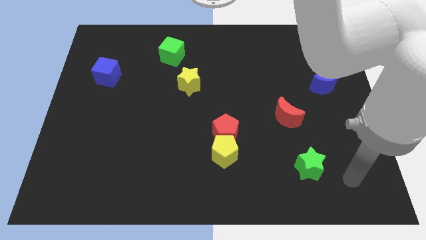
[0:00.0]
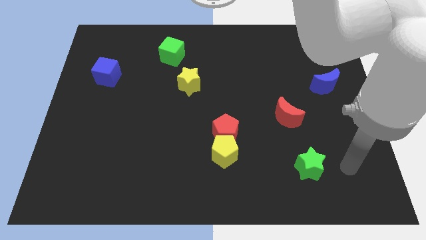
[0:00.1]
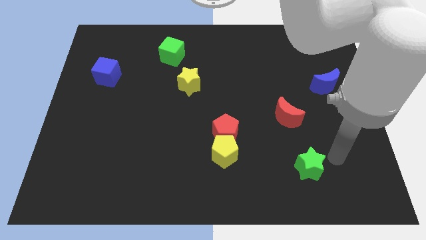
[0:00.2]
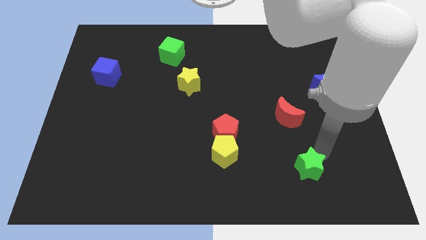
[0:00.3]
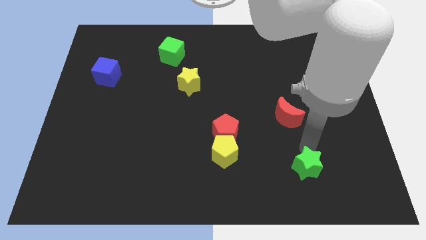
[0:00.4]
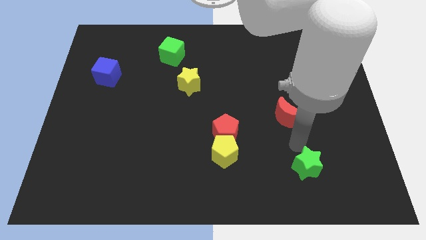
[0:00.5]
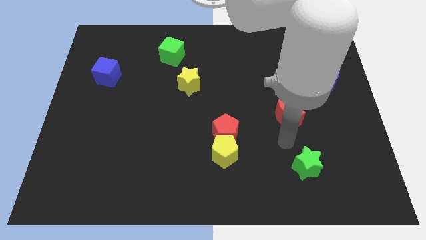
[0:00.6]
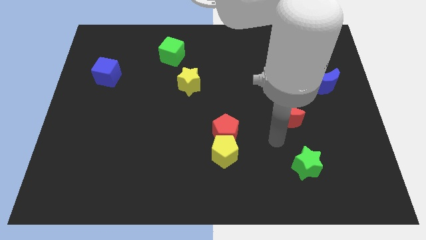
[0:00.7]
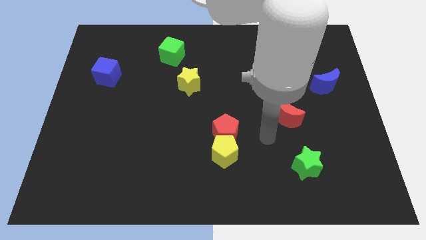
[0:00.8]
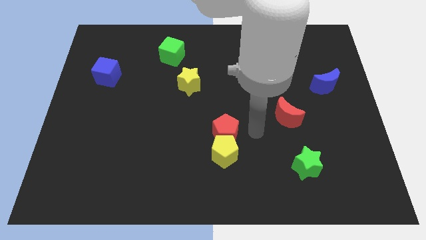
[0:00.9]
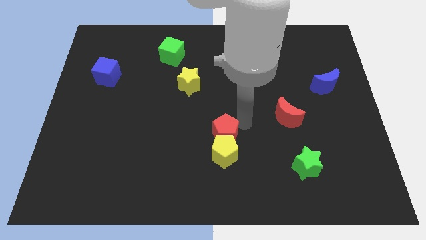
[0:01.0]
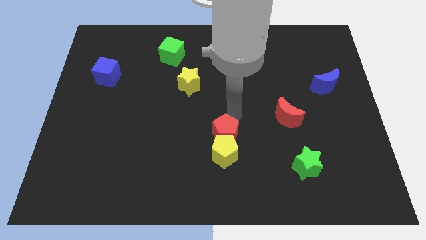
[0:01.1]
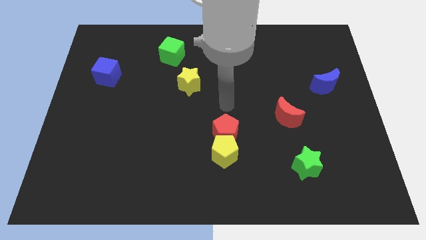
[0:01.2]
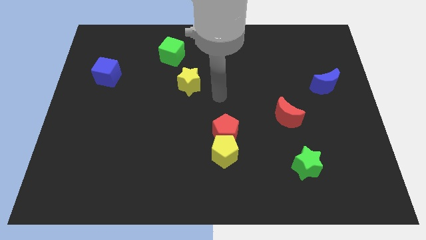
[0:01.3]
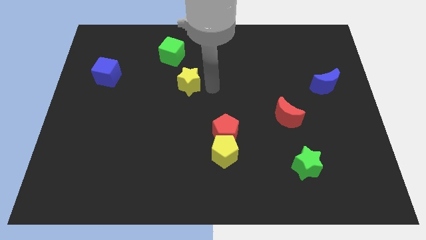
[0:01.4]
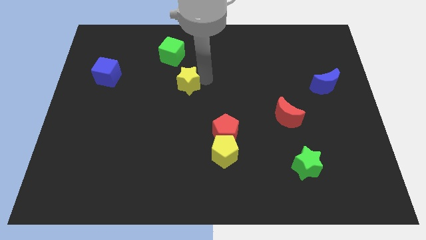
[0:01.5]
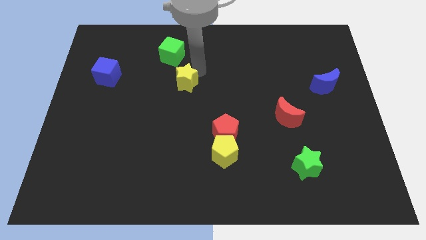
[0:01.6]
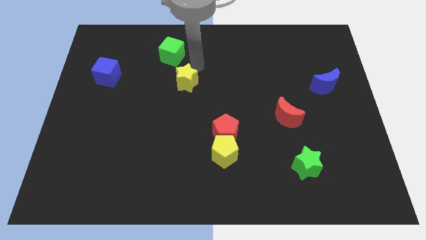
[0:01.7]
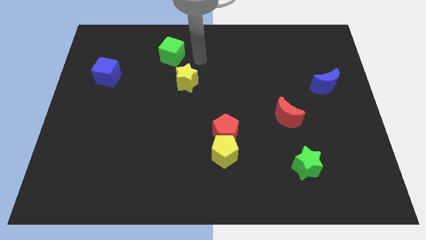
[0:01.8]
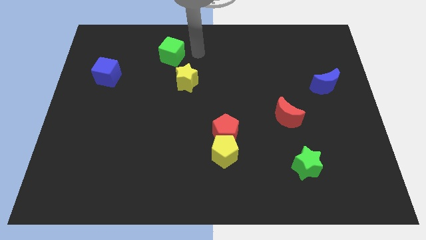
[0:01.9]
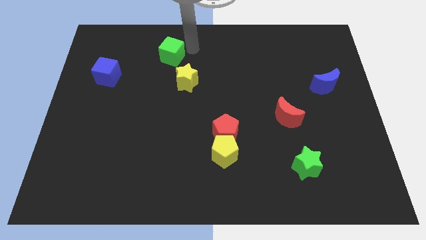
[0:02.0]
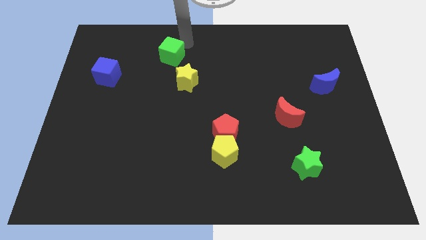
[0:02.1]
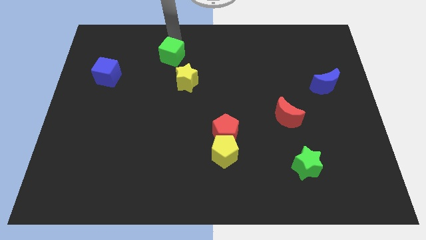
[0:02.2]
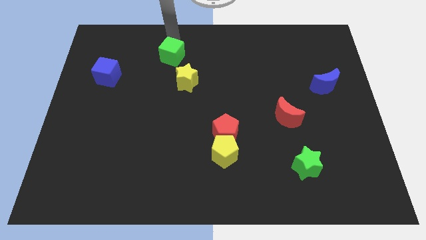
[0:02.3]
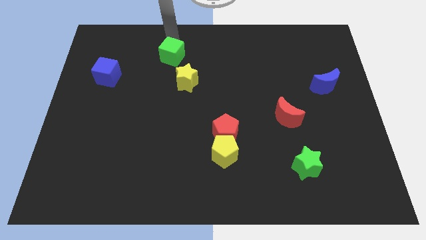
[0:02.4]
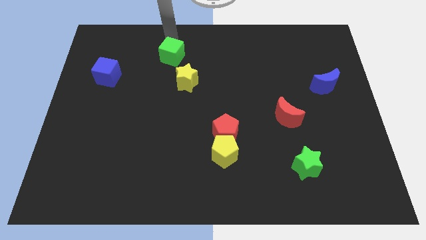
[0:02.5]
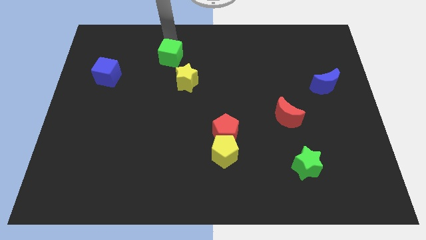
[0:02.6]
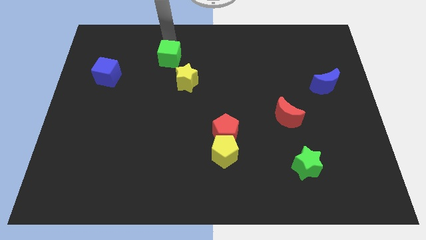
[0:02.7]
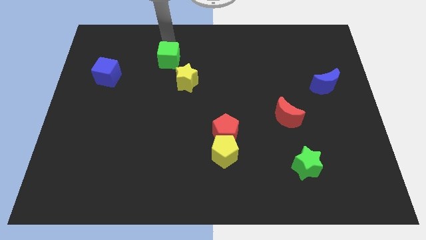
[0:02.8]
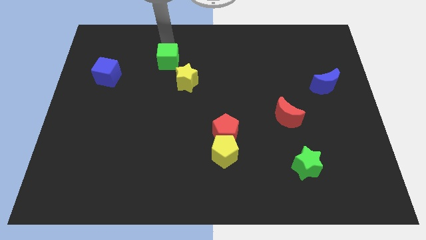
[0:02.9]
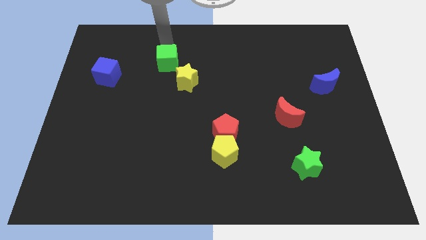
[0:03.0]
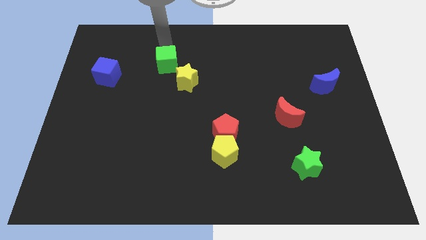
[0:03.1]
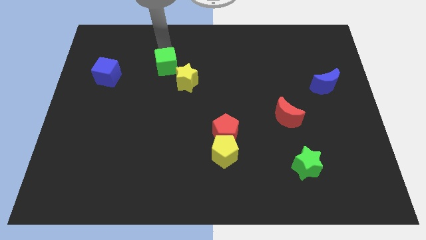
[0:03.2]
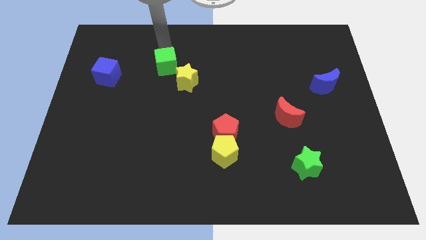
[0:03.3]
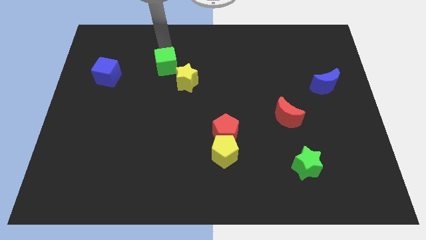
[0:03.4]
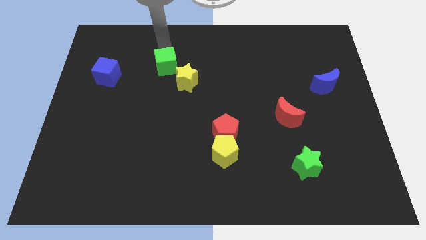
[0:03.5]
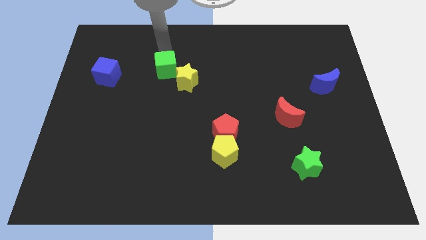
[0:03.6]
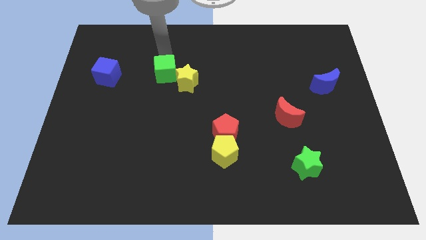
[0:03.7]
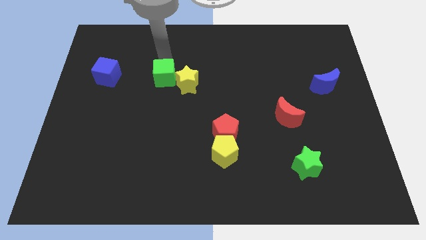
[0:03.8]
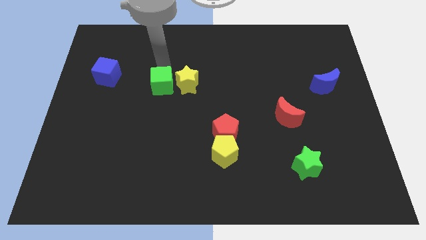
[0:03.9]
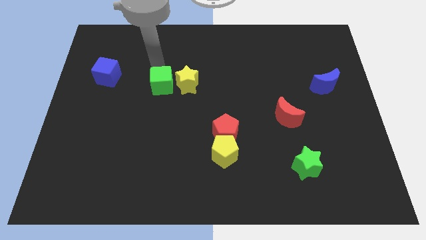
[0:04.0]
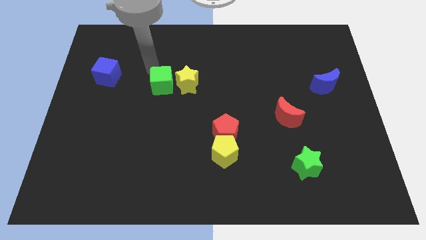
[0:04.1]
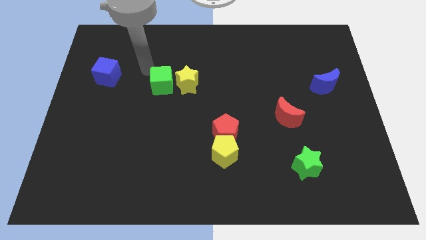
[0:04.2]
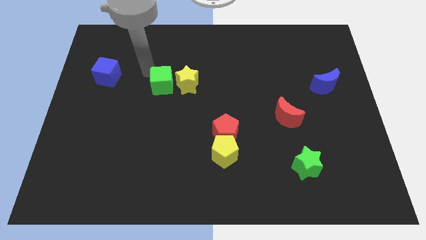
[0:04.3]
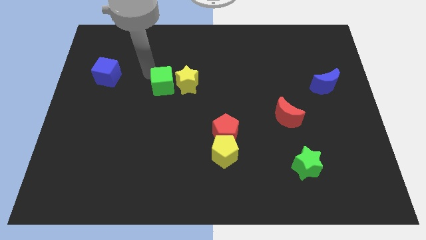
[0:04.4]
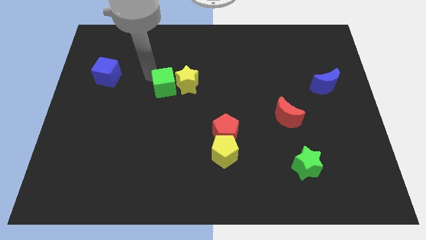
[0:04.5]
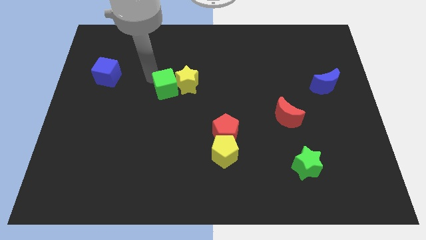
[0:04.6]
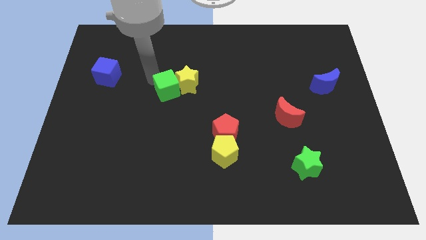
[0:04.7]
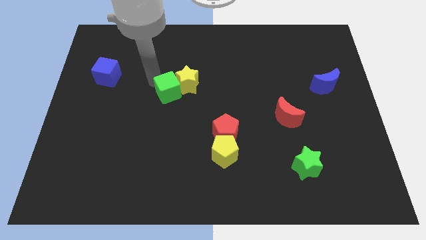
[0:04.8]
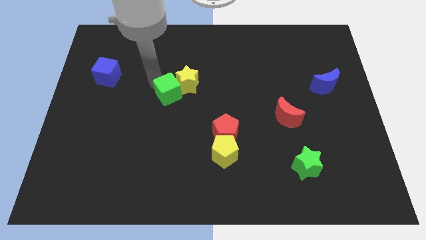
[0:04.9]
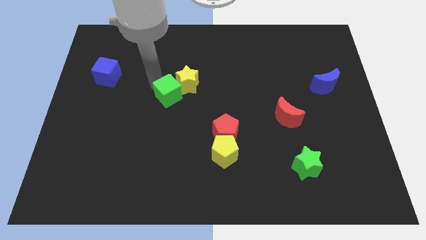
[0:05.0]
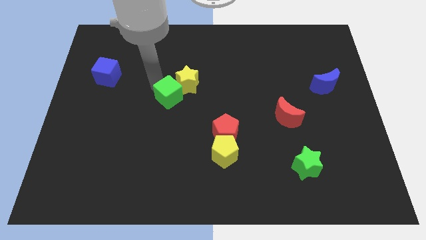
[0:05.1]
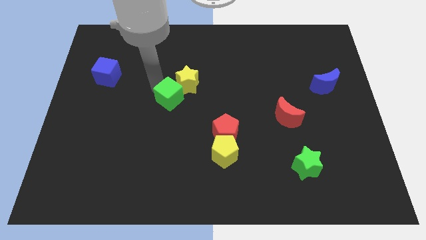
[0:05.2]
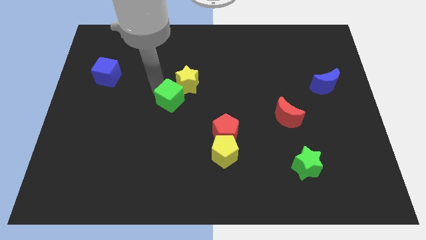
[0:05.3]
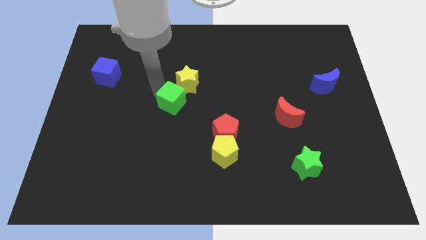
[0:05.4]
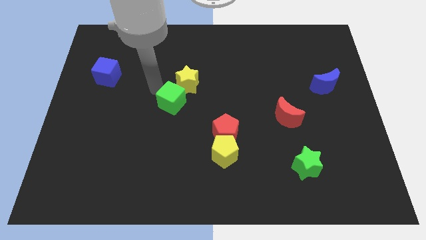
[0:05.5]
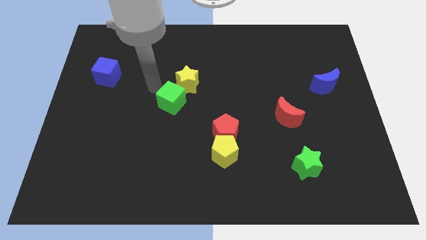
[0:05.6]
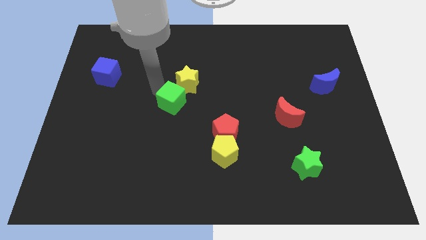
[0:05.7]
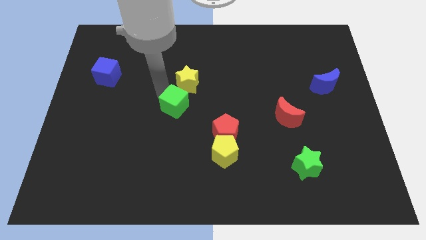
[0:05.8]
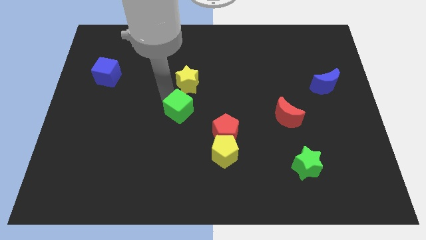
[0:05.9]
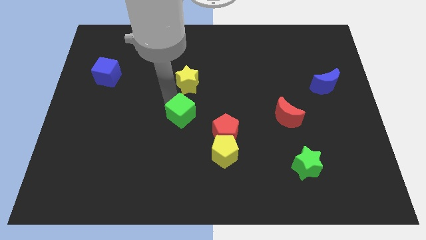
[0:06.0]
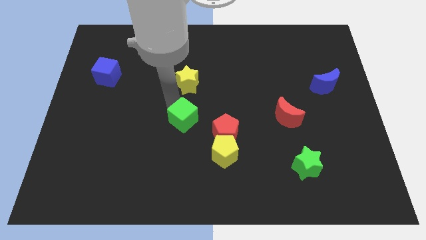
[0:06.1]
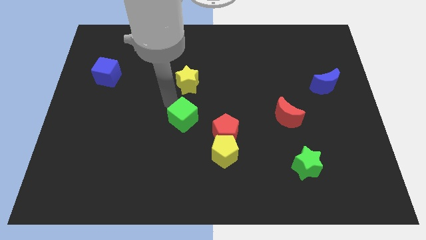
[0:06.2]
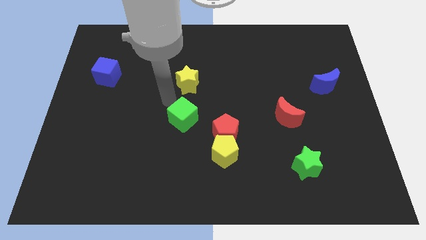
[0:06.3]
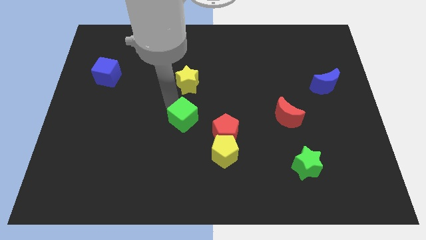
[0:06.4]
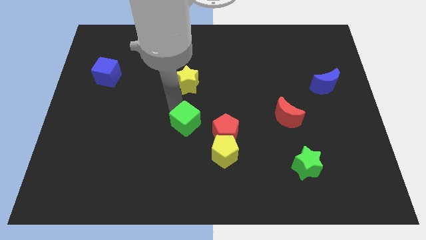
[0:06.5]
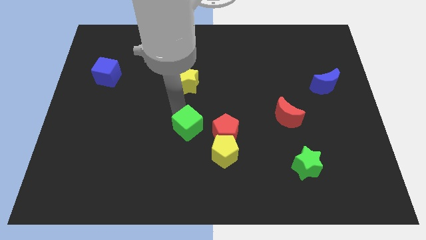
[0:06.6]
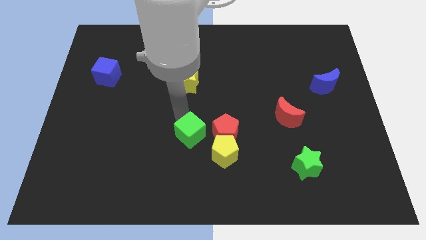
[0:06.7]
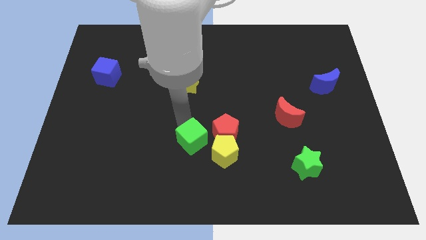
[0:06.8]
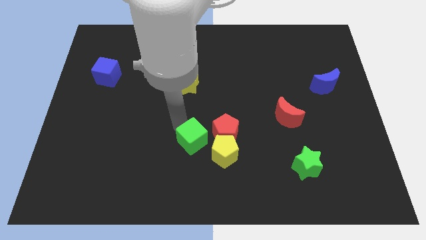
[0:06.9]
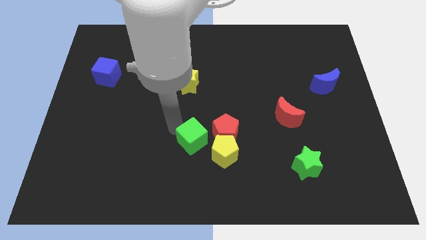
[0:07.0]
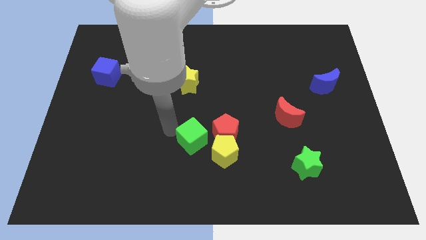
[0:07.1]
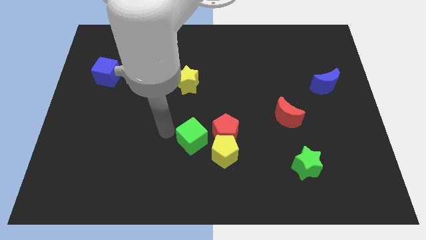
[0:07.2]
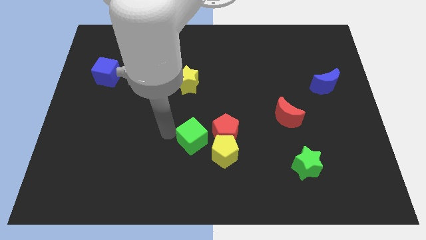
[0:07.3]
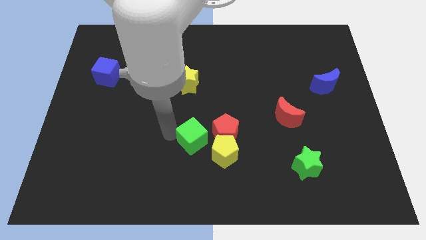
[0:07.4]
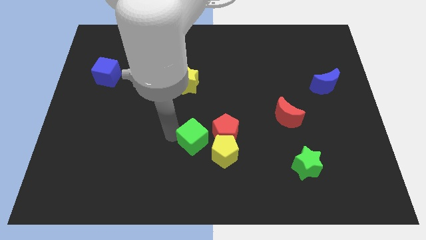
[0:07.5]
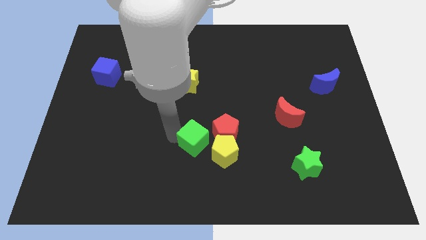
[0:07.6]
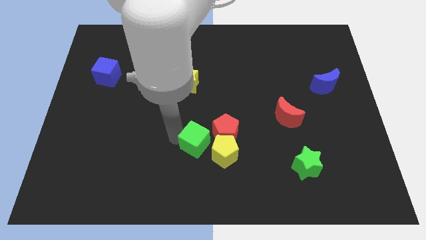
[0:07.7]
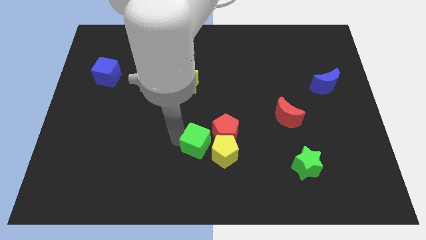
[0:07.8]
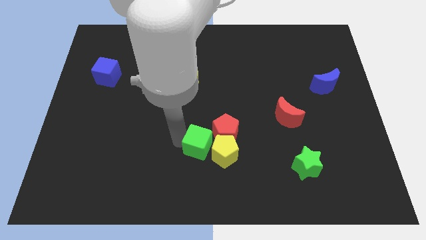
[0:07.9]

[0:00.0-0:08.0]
move the green cube to the yellow pentagon
